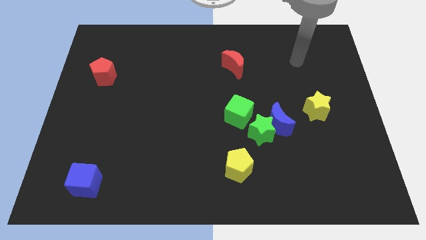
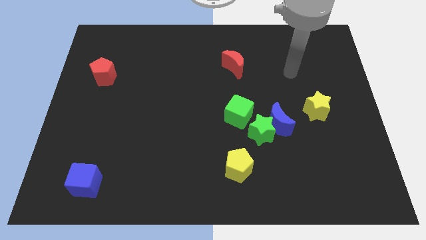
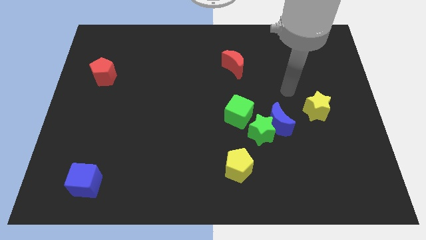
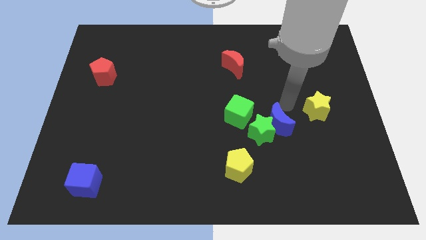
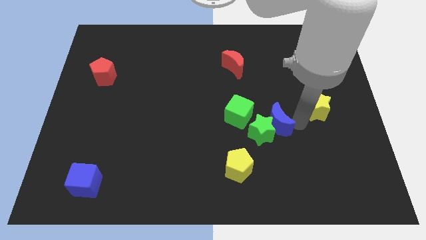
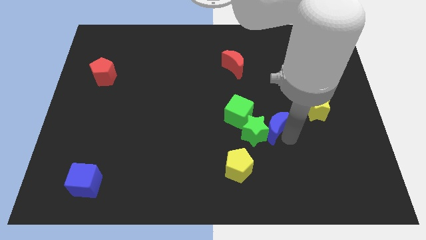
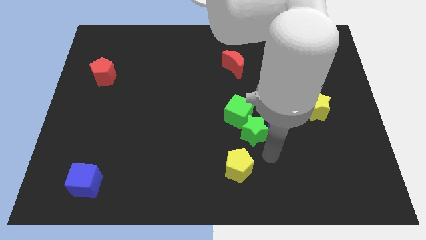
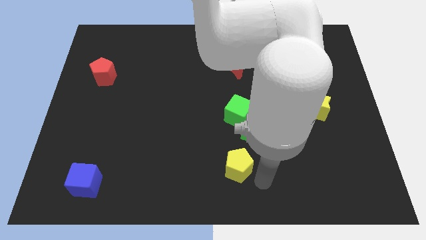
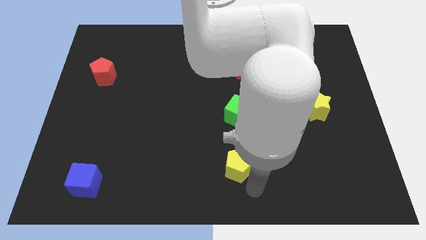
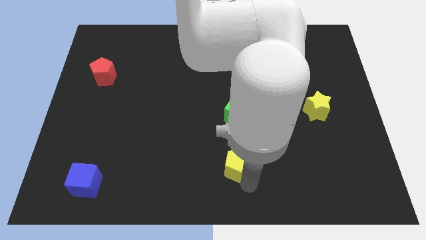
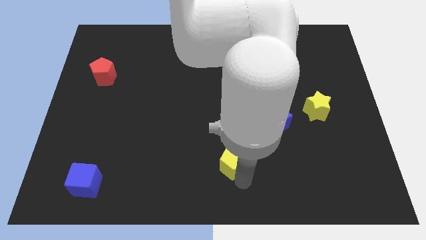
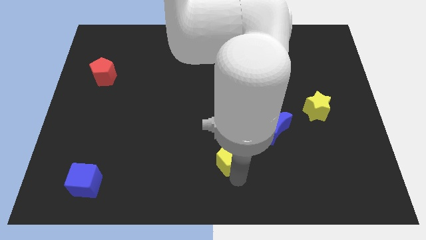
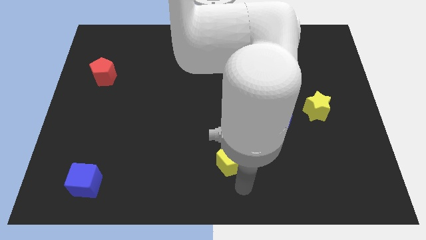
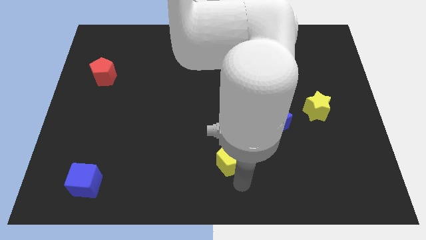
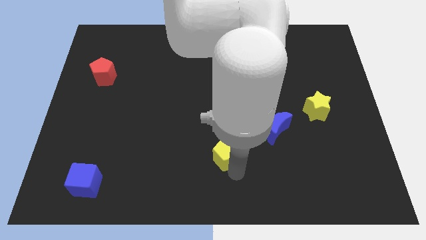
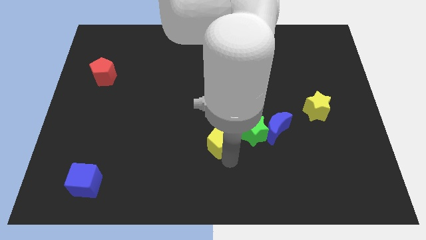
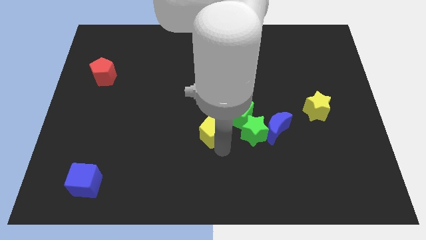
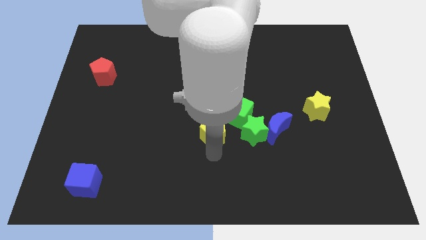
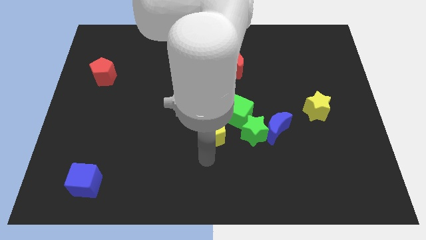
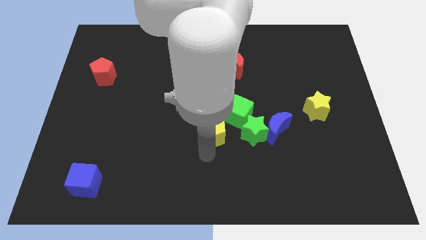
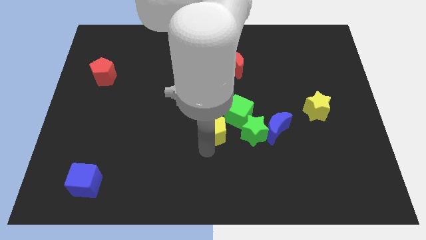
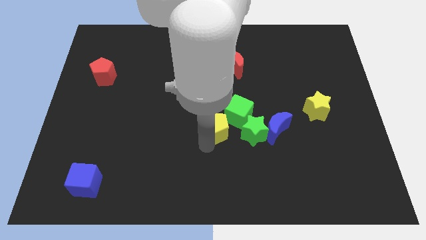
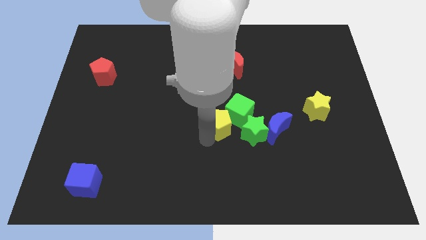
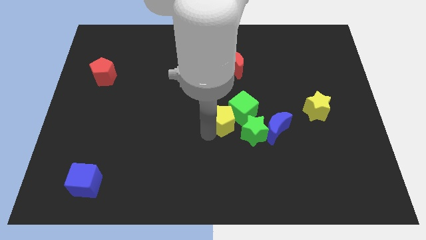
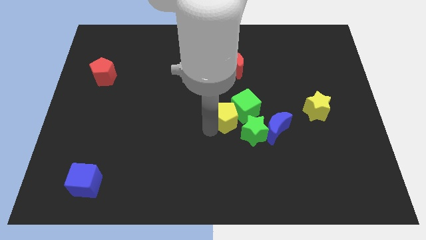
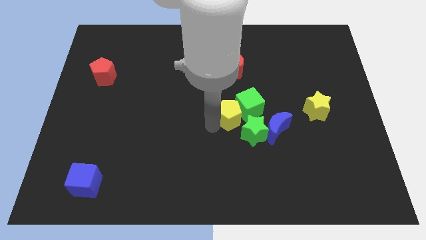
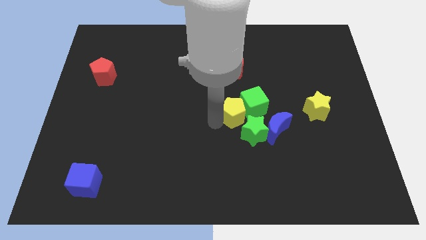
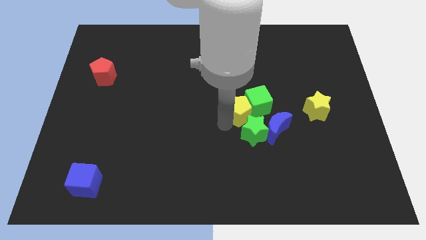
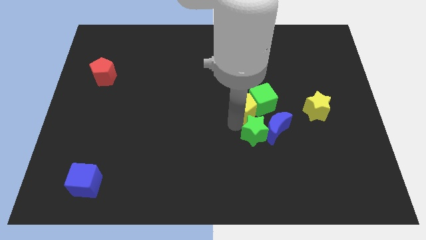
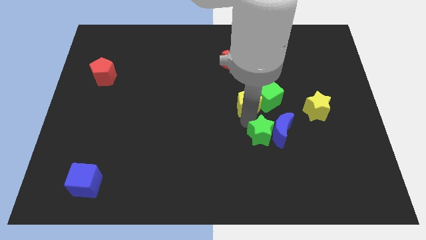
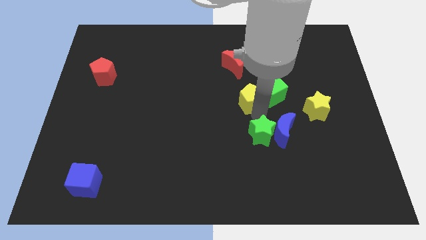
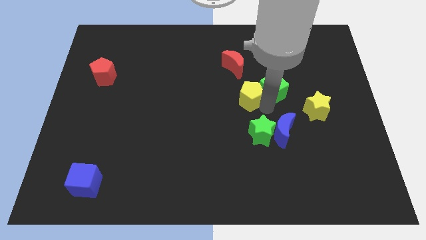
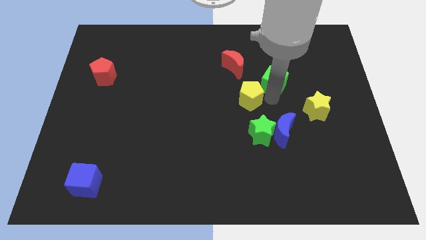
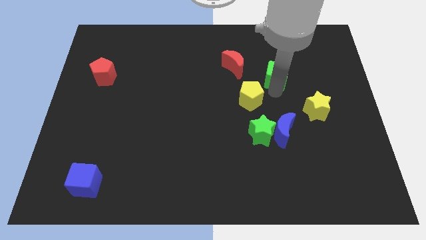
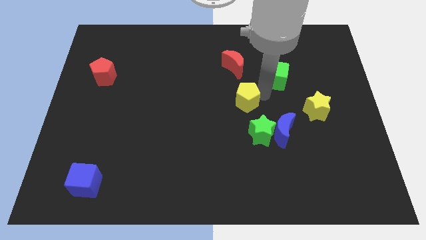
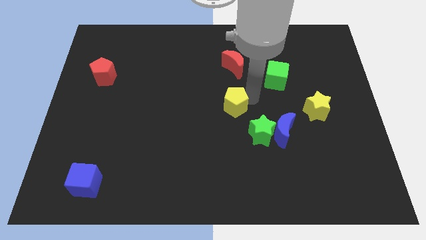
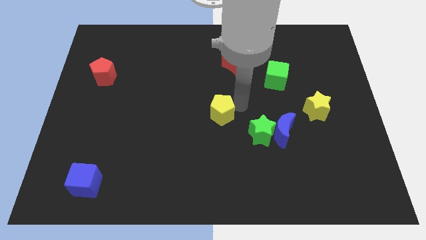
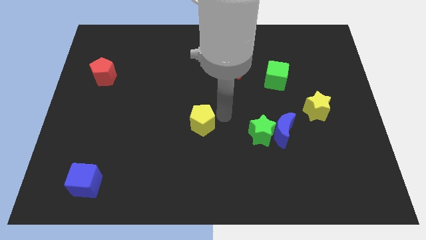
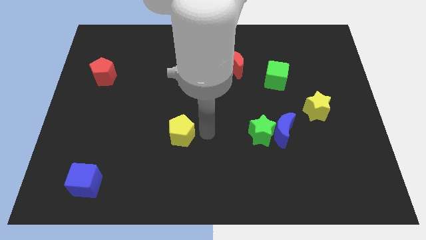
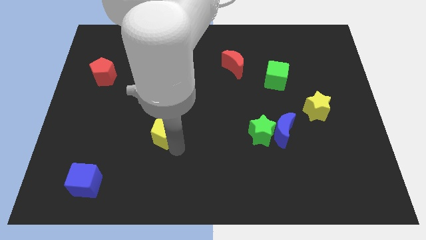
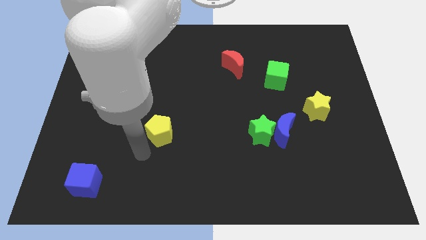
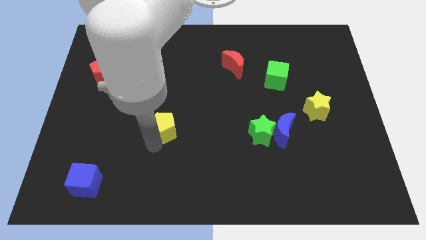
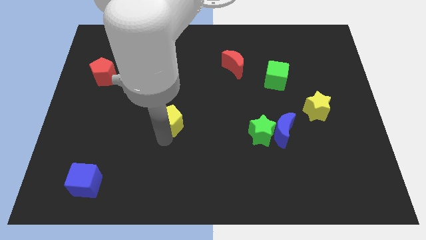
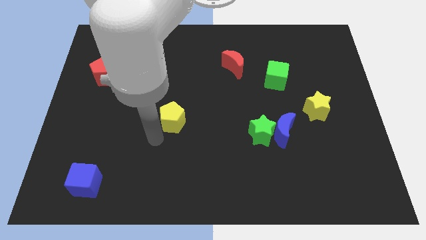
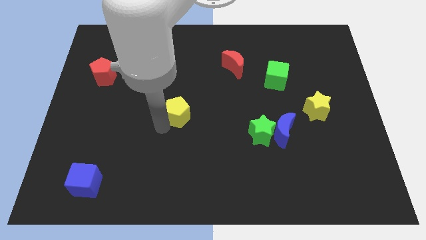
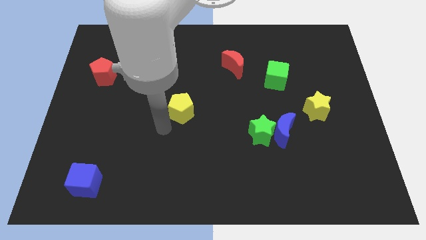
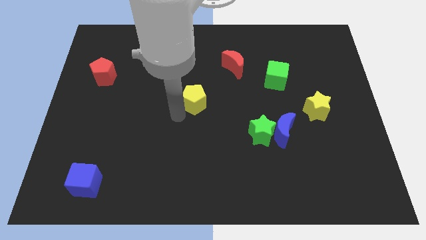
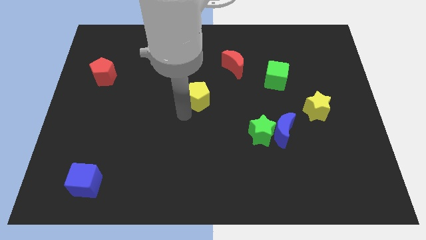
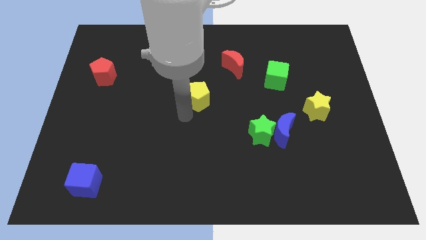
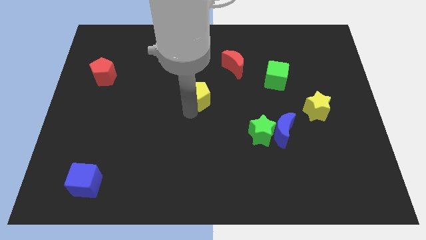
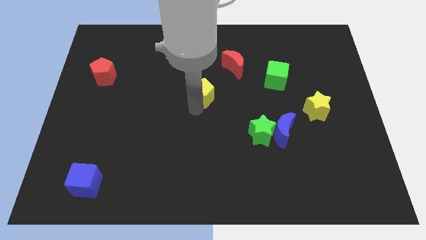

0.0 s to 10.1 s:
move the yellow pentagon diagonally down and to the left of the red moon

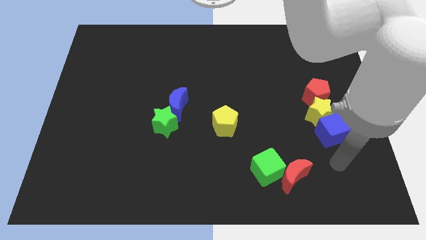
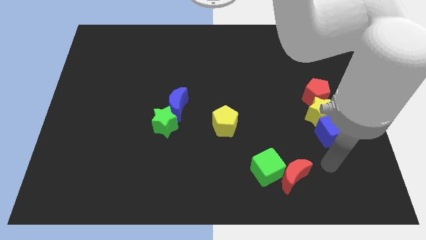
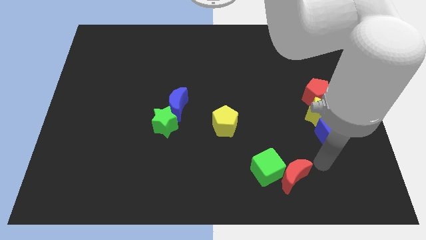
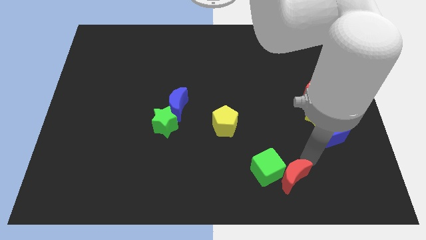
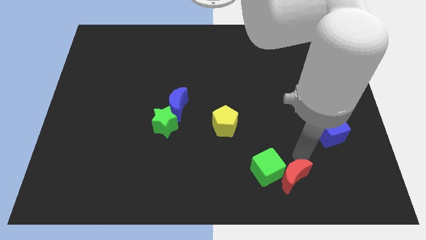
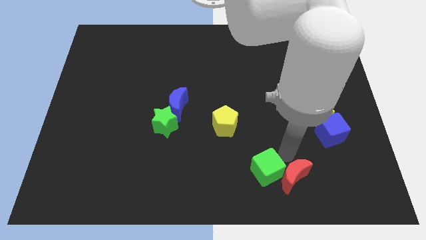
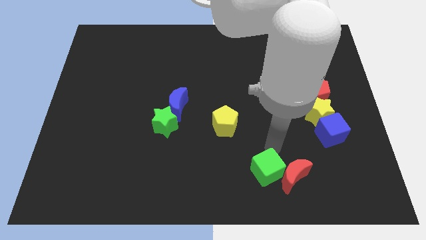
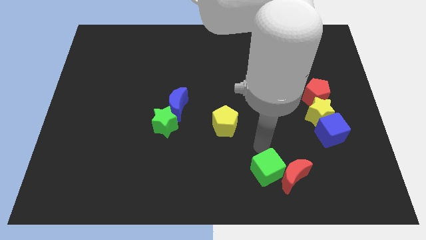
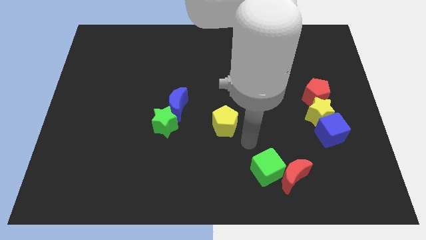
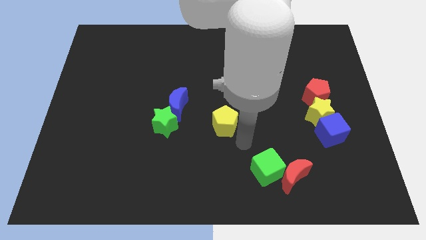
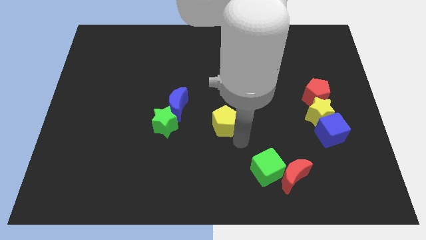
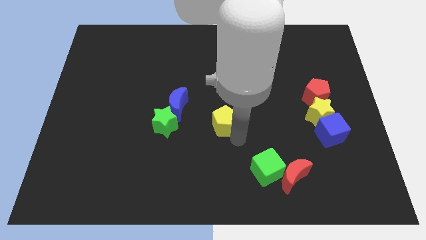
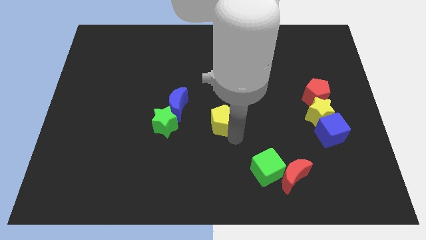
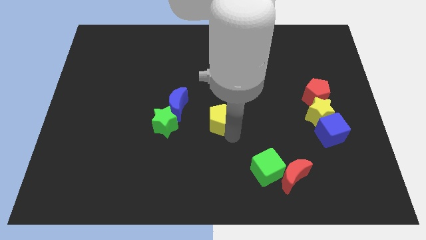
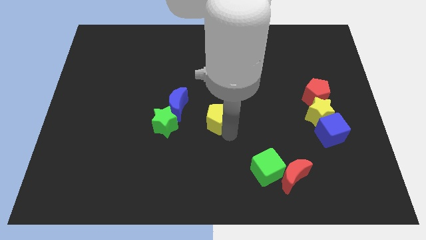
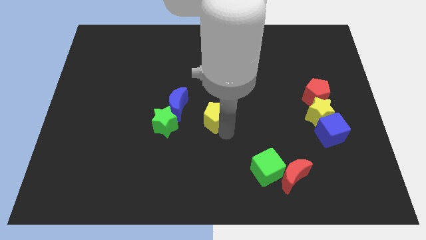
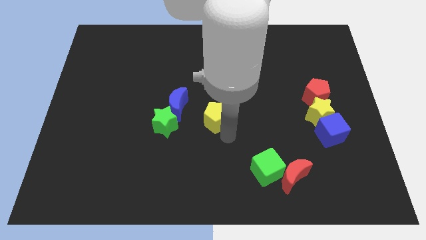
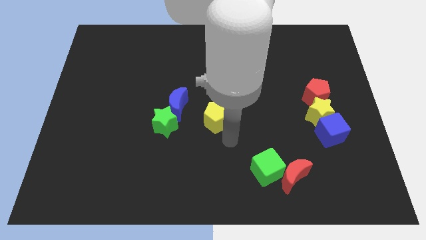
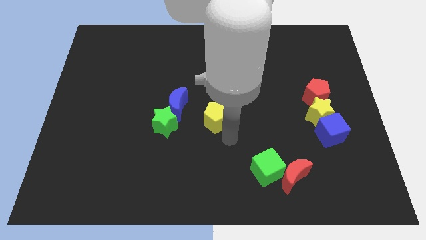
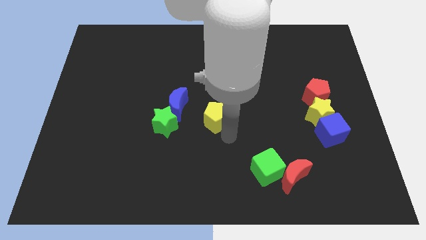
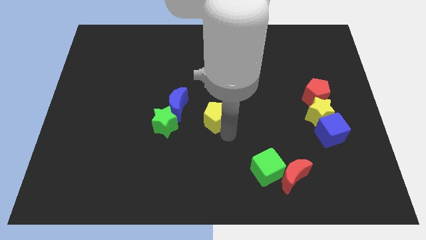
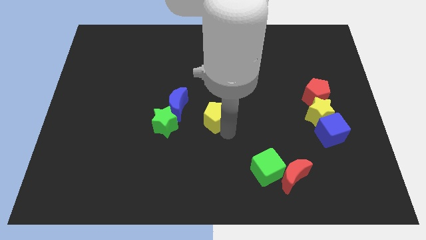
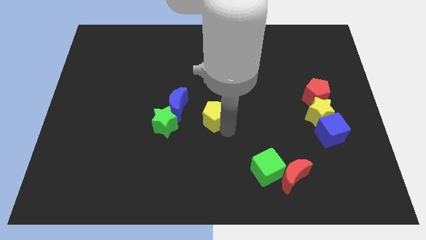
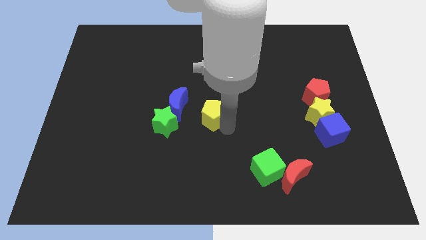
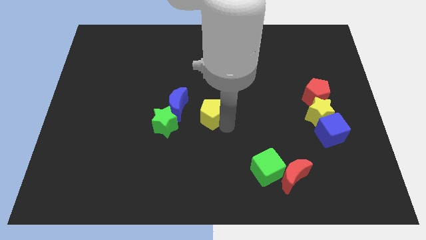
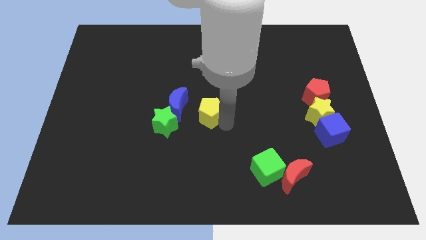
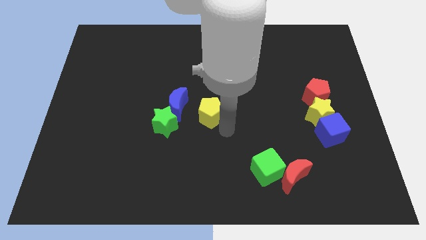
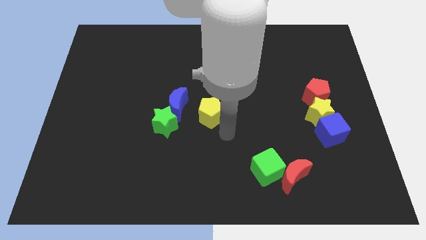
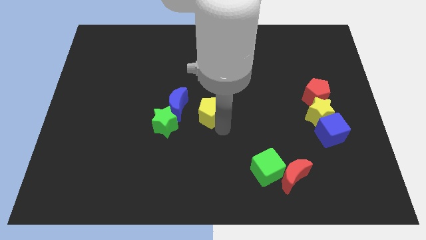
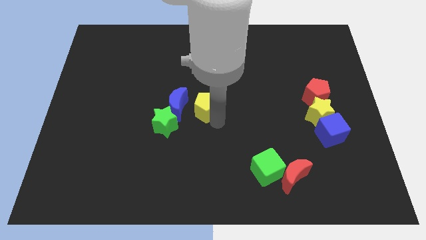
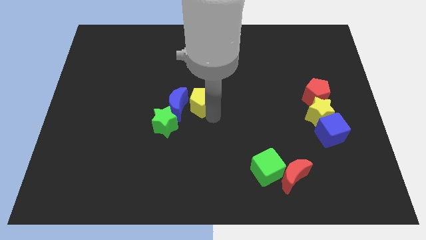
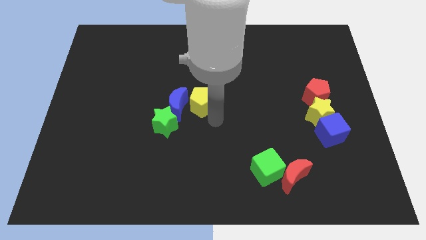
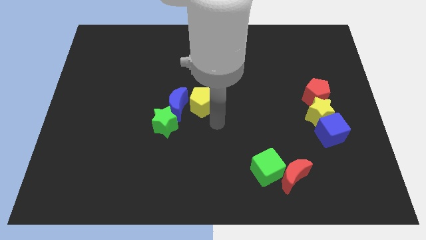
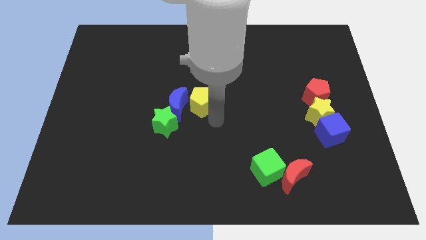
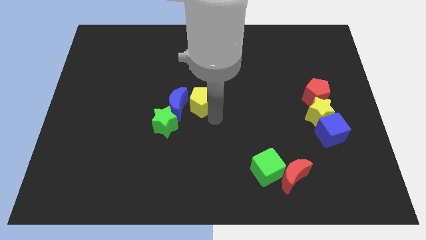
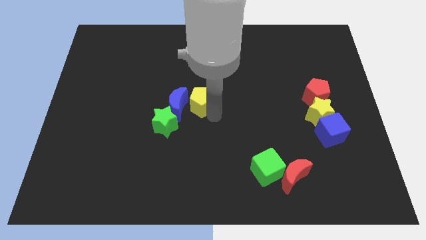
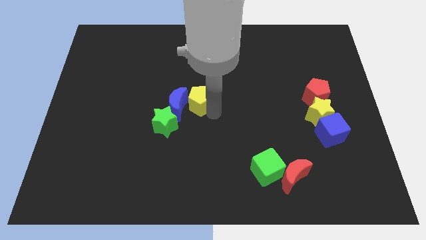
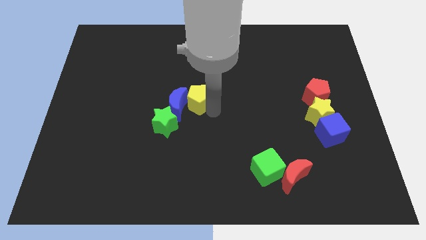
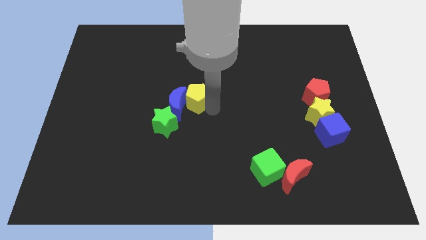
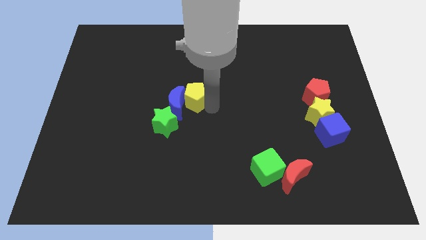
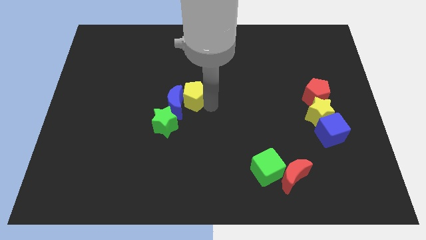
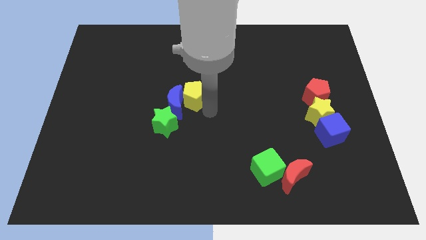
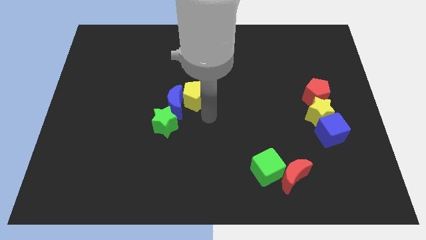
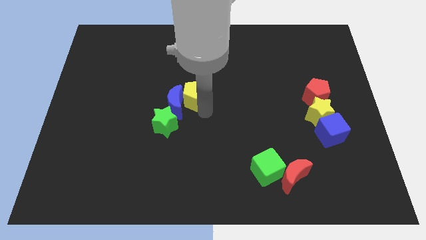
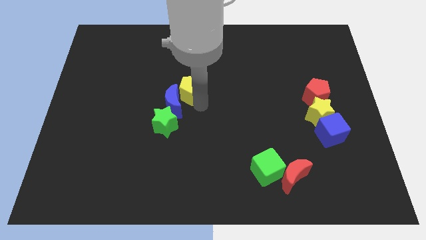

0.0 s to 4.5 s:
push the yellow pentagon to the top side of the blue moon
